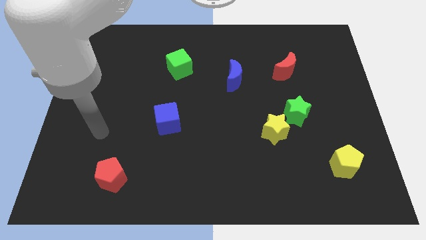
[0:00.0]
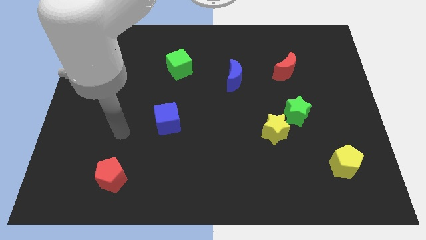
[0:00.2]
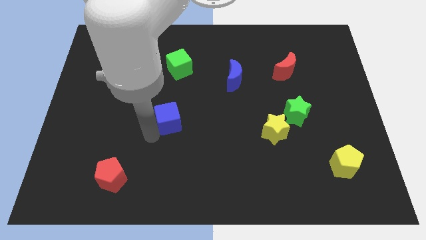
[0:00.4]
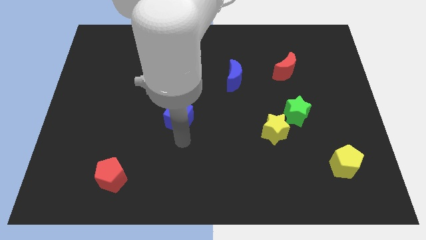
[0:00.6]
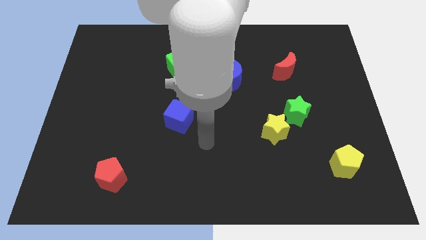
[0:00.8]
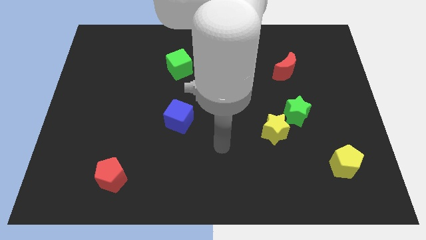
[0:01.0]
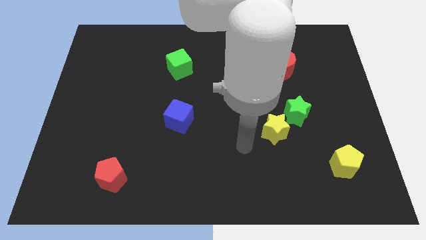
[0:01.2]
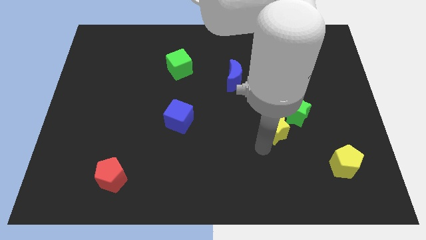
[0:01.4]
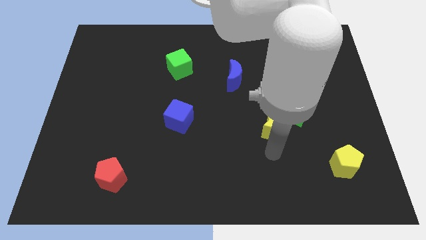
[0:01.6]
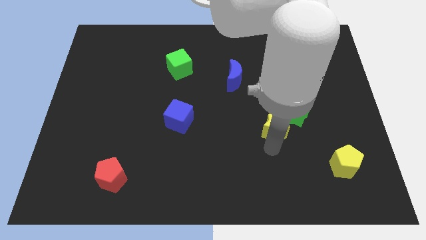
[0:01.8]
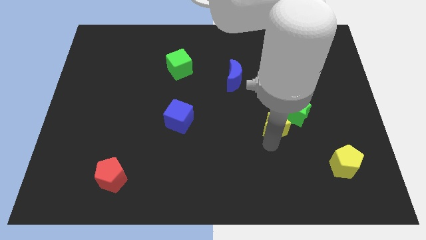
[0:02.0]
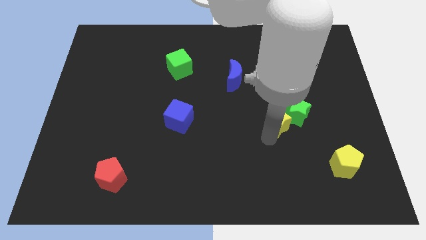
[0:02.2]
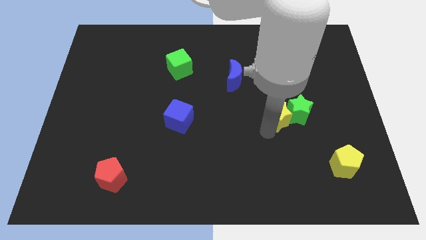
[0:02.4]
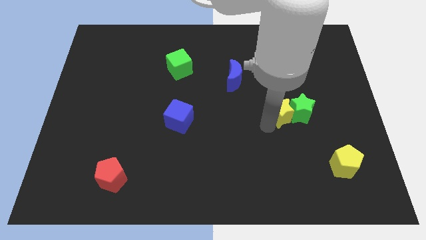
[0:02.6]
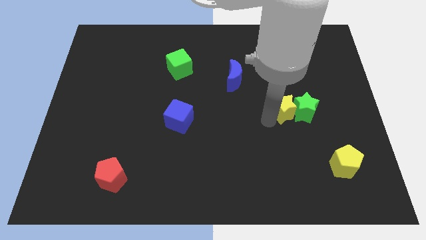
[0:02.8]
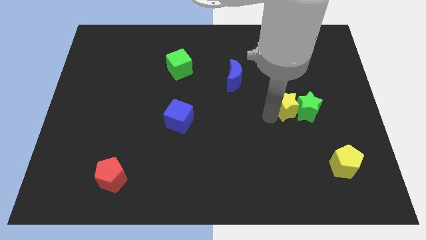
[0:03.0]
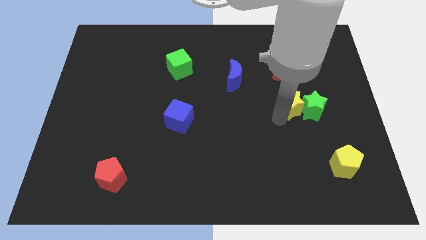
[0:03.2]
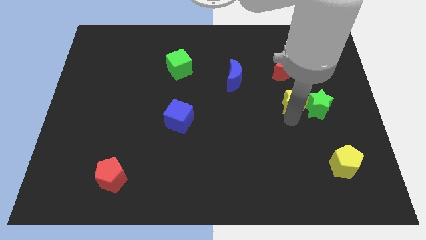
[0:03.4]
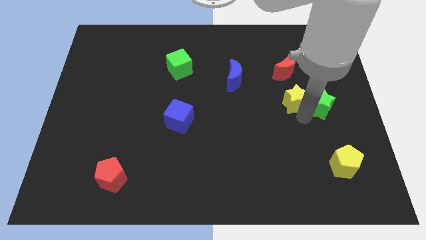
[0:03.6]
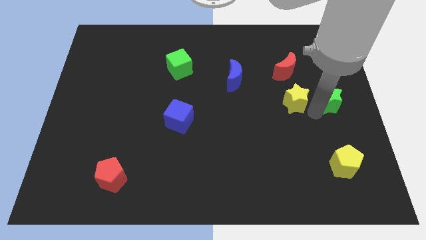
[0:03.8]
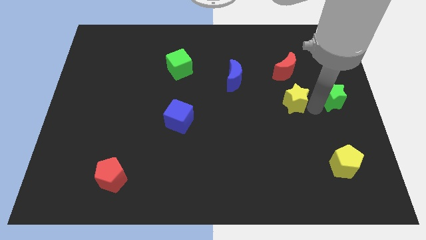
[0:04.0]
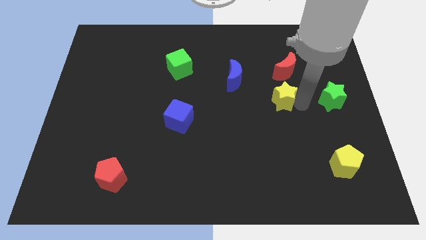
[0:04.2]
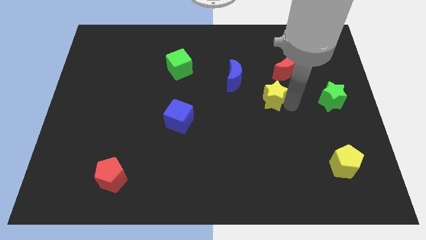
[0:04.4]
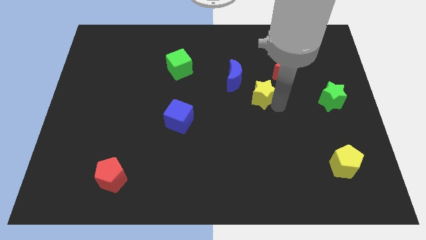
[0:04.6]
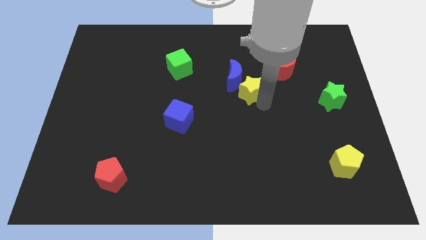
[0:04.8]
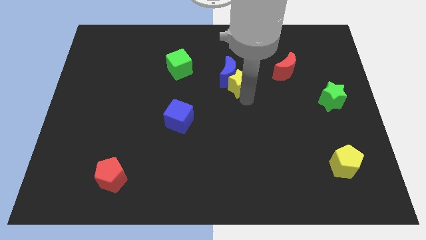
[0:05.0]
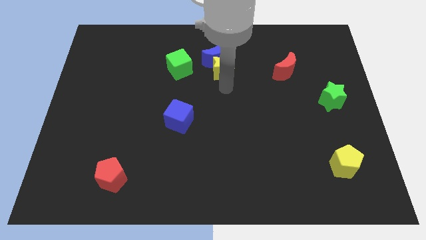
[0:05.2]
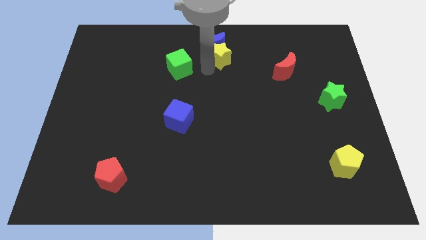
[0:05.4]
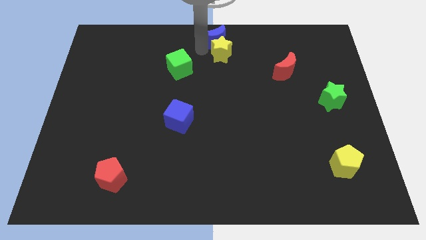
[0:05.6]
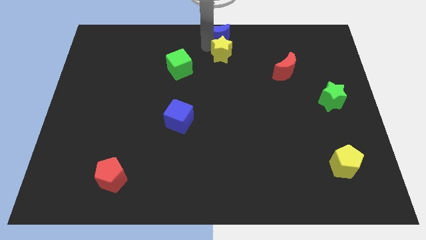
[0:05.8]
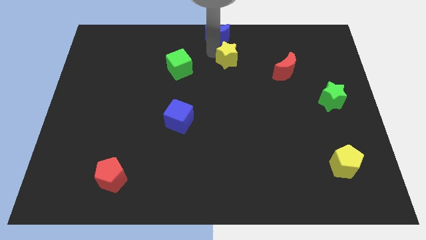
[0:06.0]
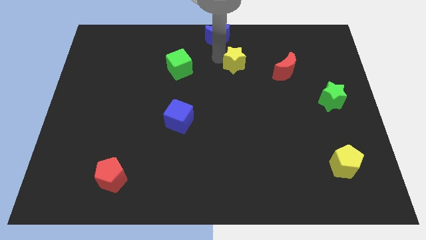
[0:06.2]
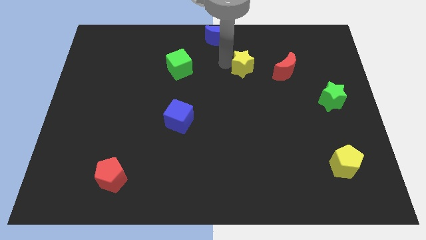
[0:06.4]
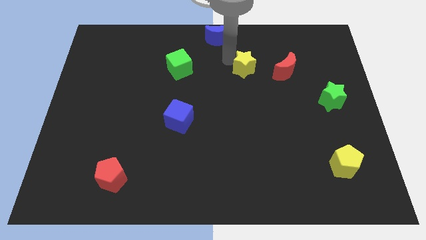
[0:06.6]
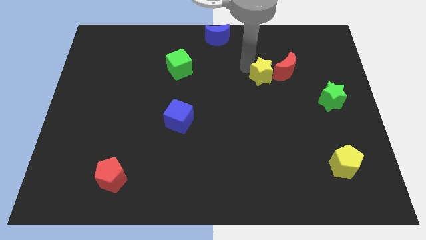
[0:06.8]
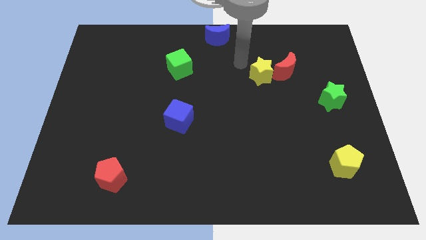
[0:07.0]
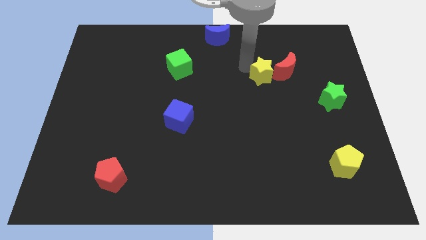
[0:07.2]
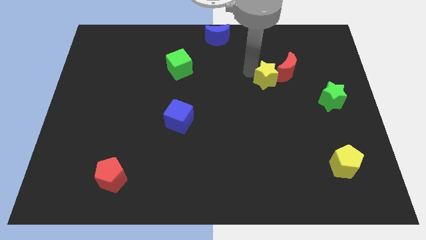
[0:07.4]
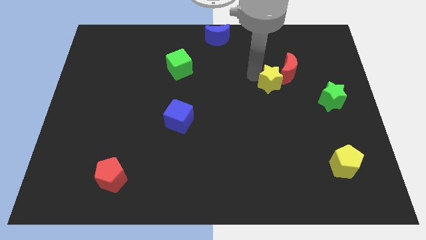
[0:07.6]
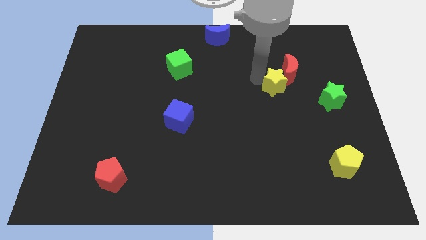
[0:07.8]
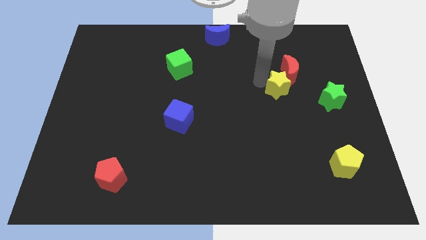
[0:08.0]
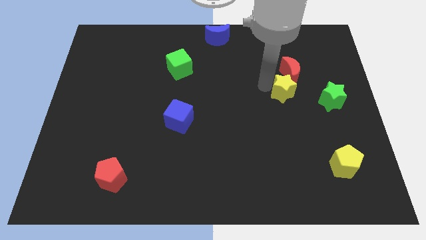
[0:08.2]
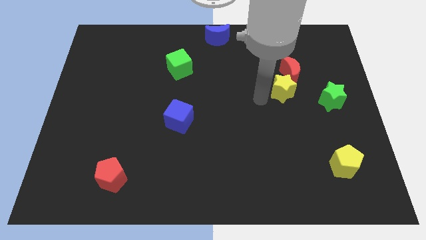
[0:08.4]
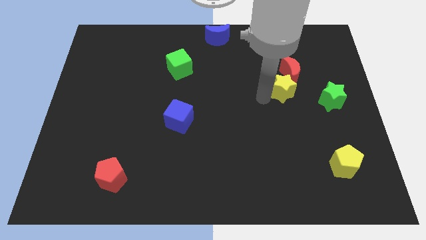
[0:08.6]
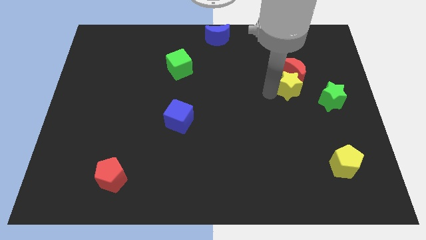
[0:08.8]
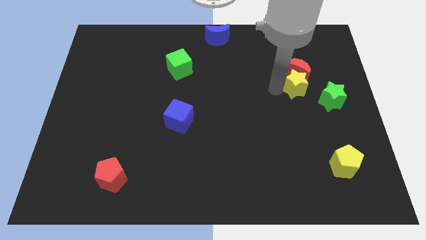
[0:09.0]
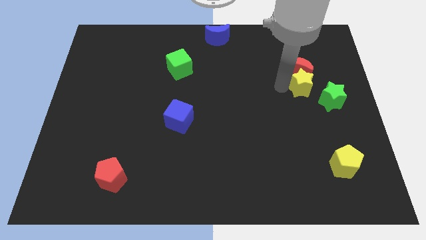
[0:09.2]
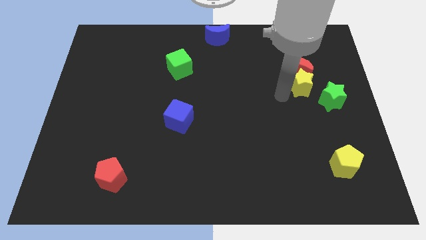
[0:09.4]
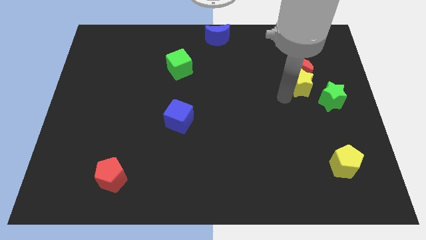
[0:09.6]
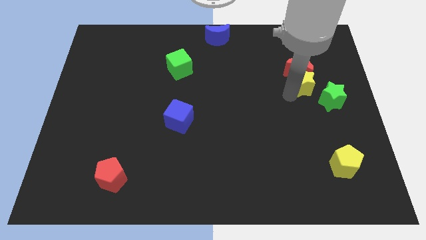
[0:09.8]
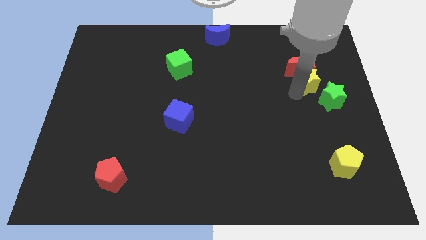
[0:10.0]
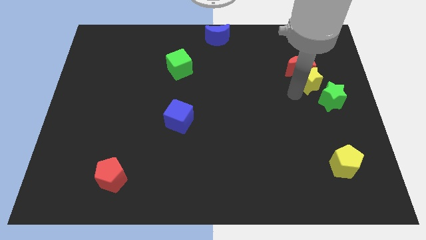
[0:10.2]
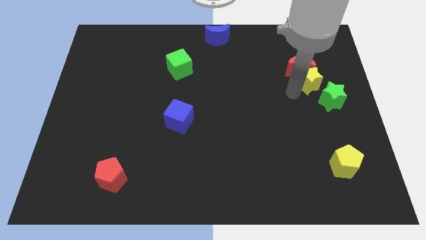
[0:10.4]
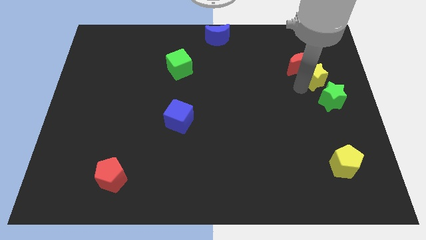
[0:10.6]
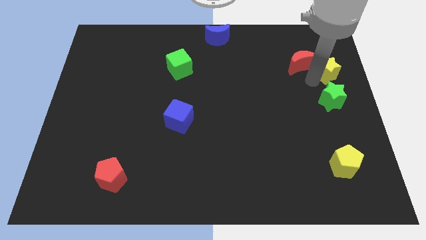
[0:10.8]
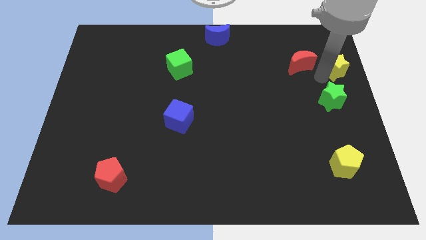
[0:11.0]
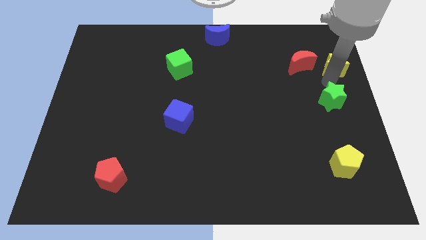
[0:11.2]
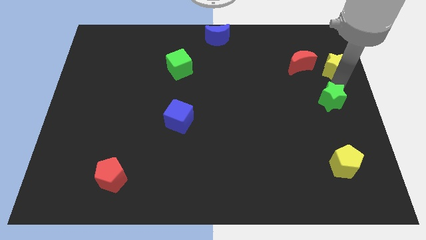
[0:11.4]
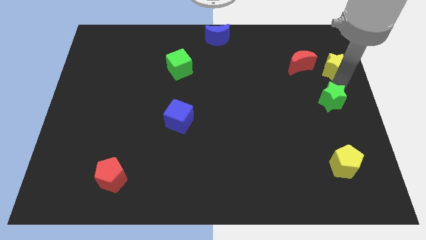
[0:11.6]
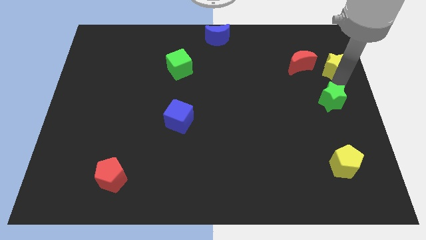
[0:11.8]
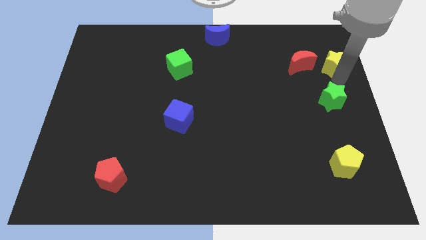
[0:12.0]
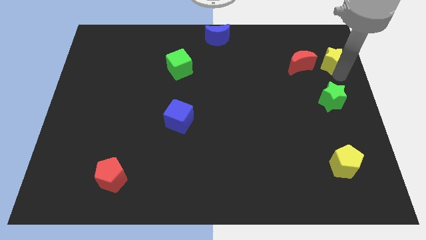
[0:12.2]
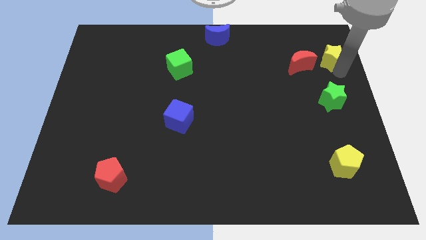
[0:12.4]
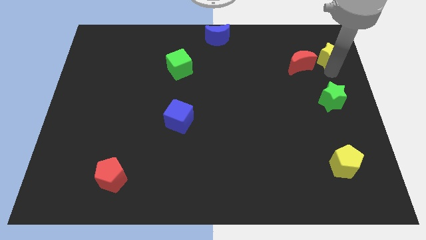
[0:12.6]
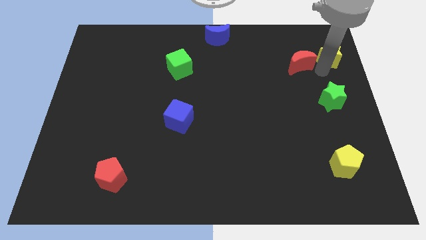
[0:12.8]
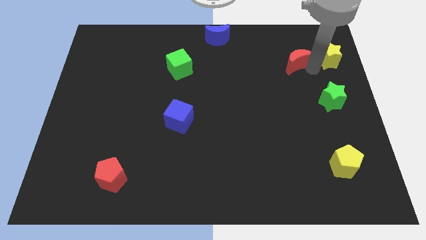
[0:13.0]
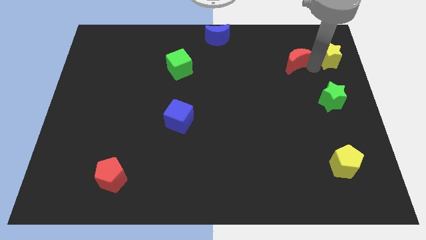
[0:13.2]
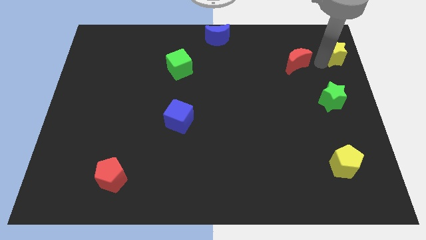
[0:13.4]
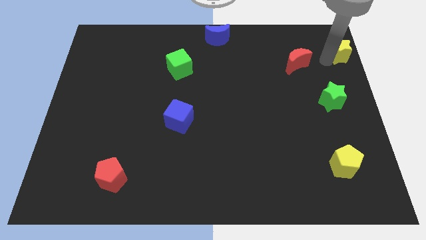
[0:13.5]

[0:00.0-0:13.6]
put the yellow star to the upper right corner

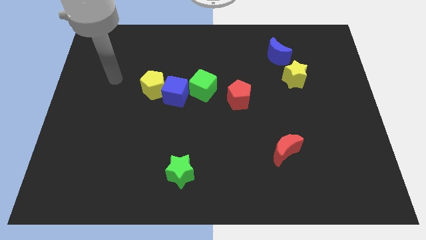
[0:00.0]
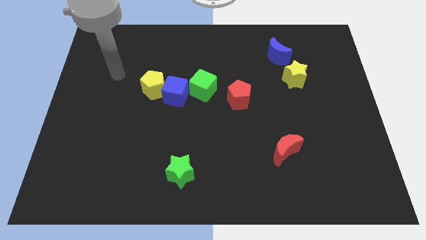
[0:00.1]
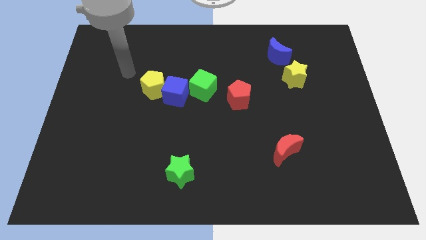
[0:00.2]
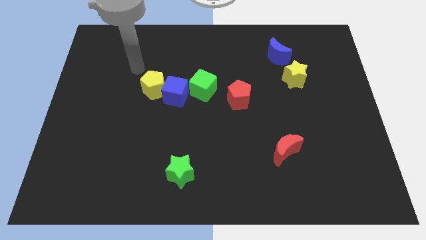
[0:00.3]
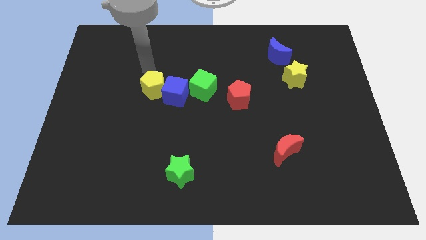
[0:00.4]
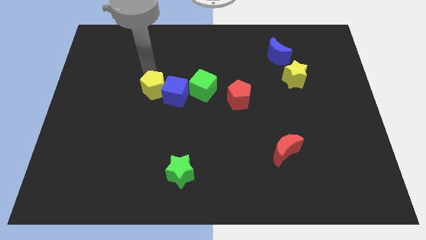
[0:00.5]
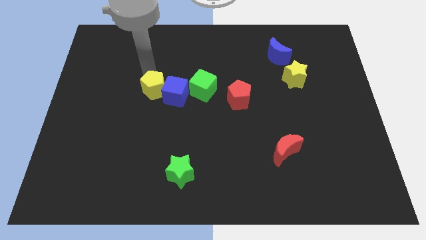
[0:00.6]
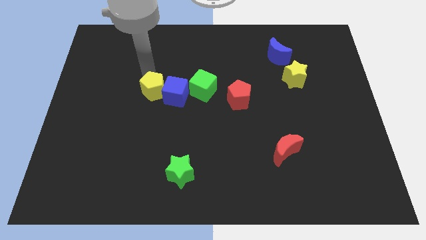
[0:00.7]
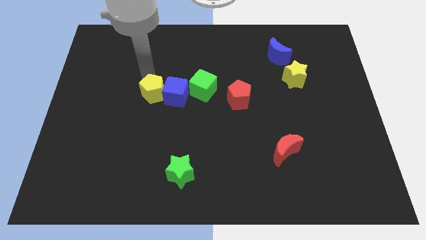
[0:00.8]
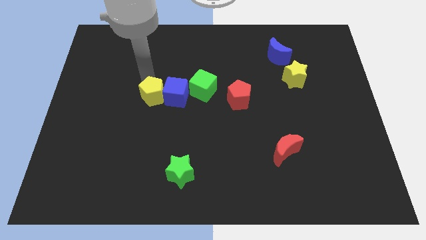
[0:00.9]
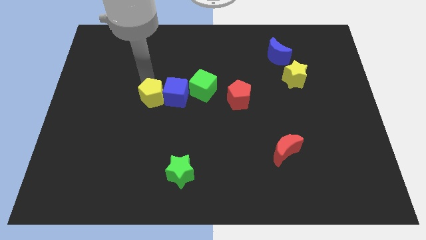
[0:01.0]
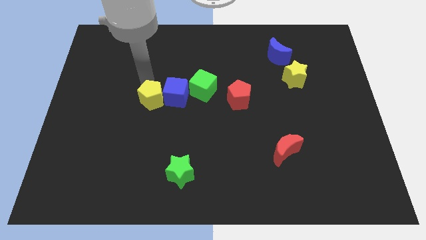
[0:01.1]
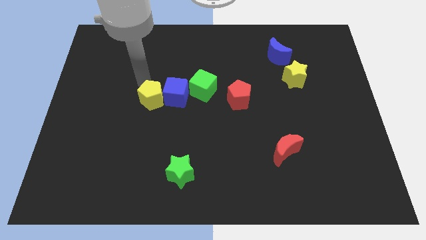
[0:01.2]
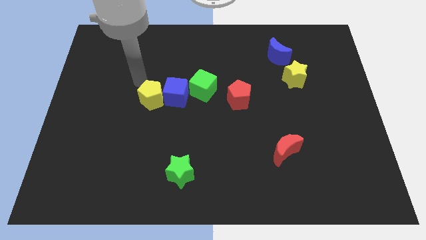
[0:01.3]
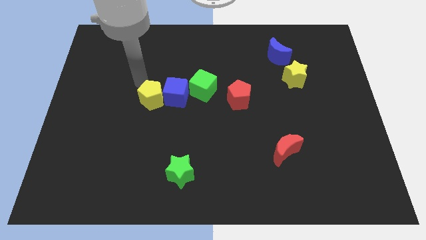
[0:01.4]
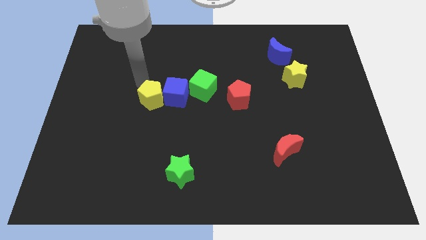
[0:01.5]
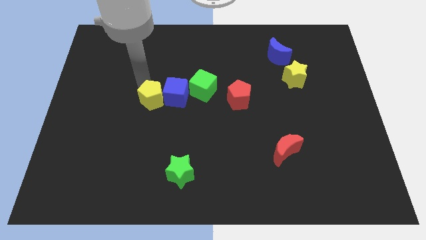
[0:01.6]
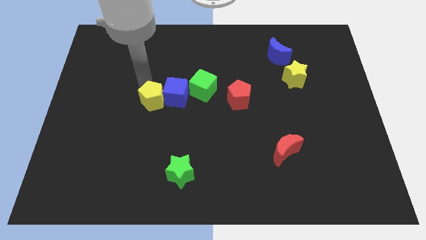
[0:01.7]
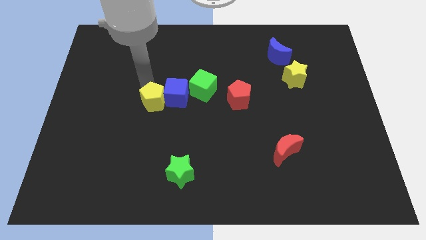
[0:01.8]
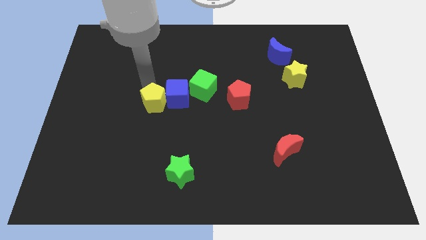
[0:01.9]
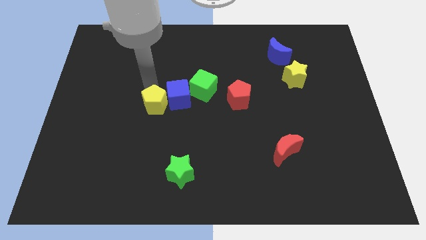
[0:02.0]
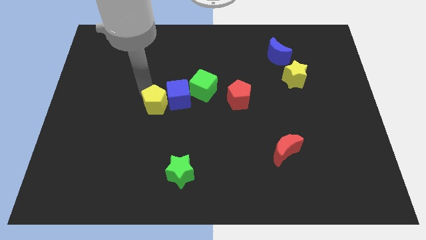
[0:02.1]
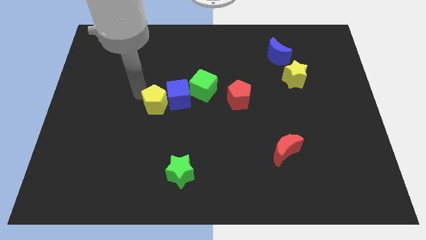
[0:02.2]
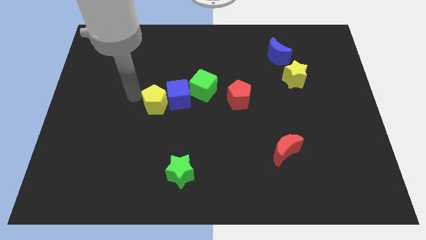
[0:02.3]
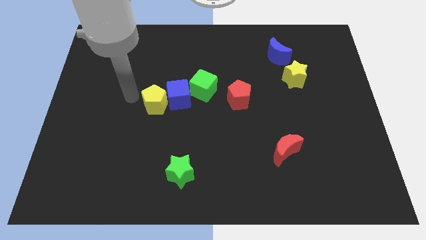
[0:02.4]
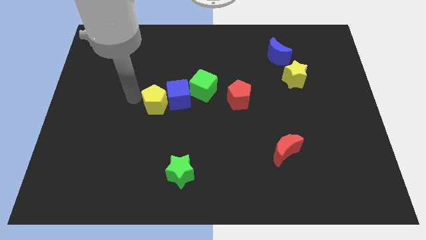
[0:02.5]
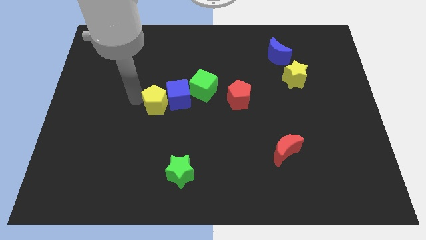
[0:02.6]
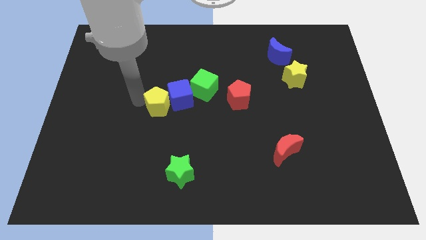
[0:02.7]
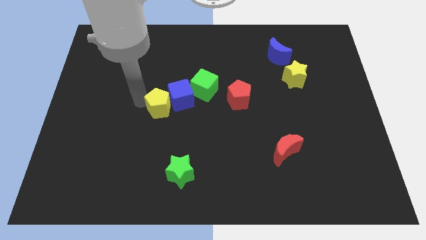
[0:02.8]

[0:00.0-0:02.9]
move the yellow pentagon to the middle
